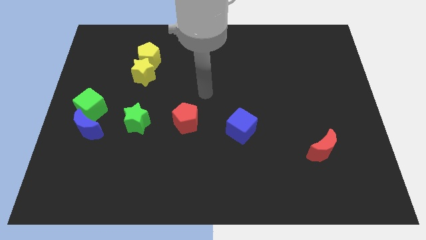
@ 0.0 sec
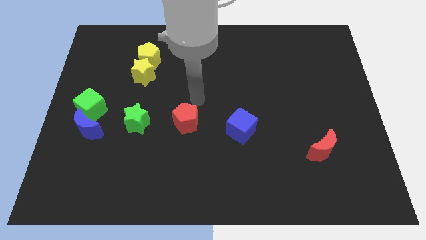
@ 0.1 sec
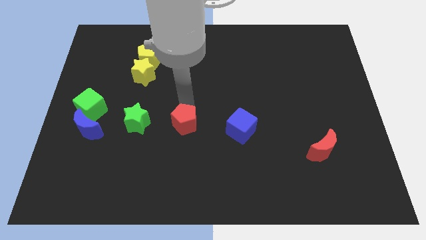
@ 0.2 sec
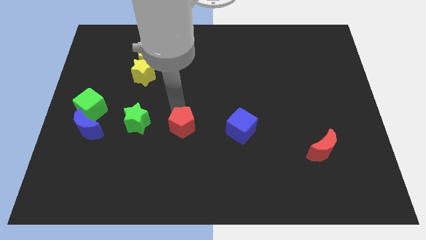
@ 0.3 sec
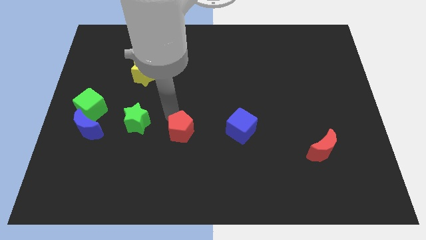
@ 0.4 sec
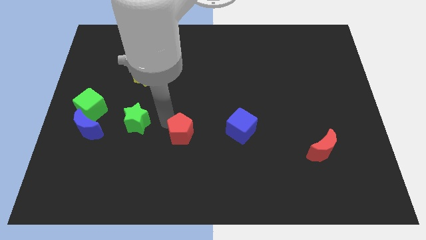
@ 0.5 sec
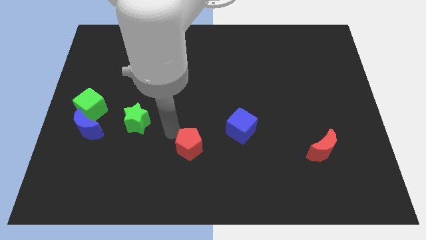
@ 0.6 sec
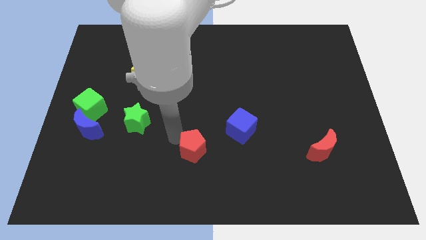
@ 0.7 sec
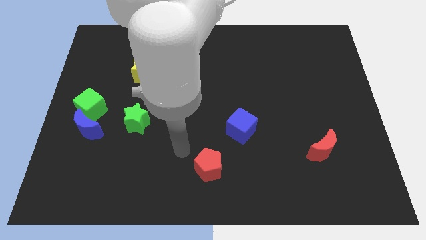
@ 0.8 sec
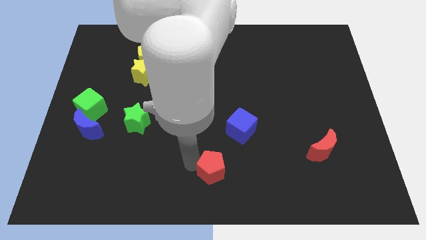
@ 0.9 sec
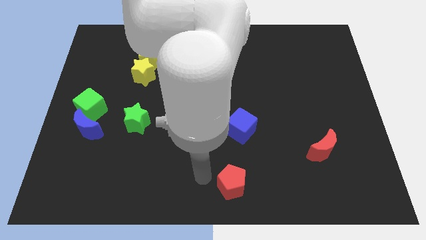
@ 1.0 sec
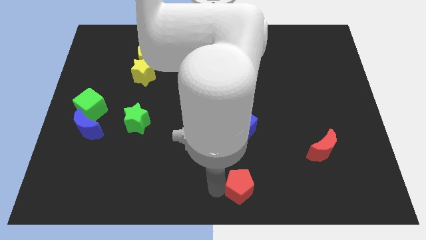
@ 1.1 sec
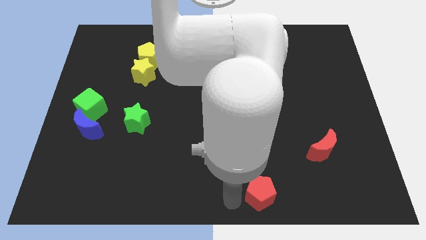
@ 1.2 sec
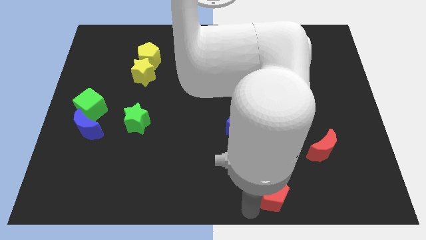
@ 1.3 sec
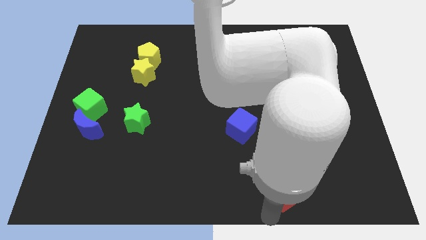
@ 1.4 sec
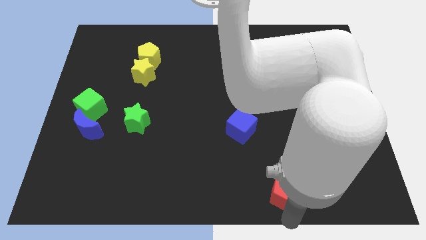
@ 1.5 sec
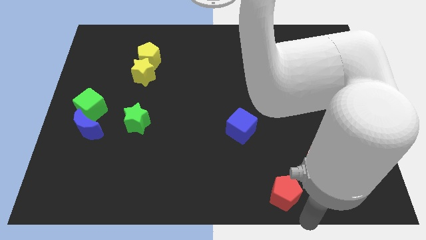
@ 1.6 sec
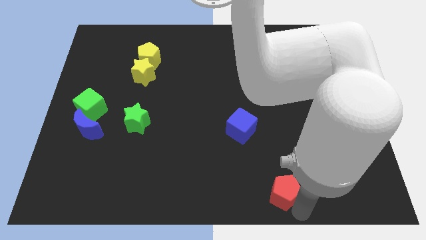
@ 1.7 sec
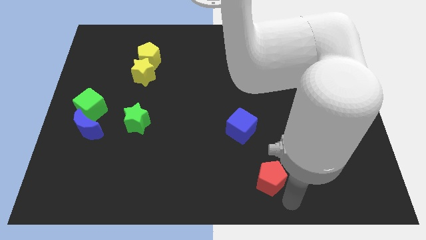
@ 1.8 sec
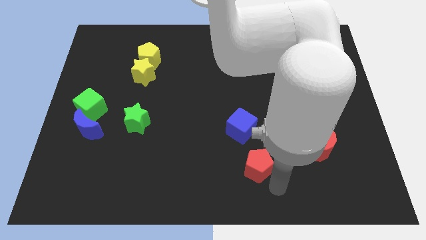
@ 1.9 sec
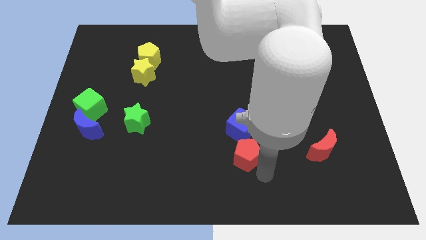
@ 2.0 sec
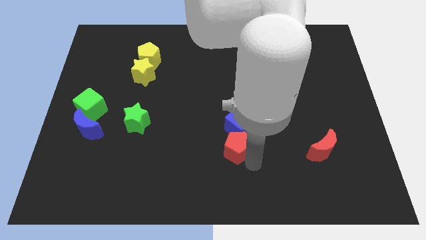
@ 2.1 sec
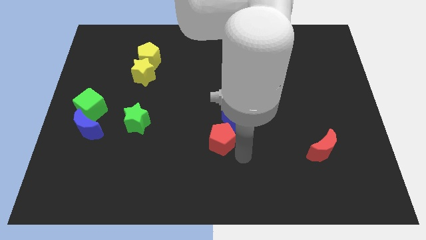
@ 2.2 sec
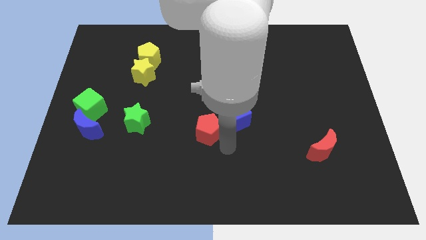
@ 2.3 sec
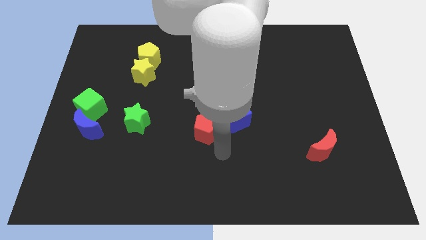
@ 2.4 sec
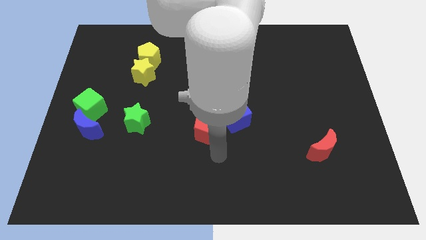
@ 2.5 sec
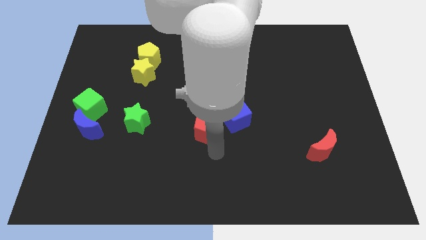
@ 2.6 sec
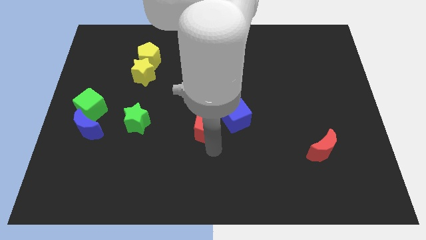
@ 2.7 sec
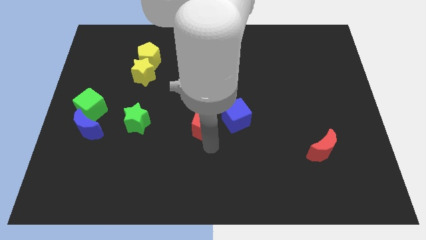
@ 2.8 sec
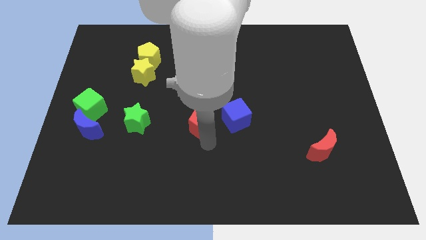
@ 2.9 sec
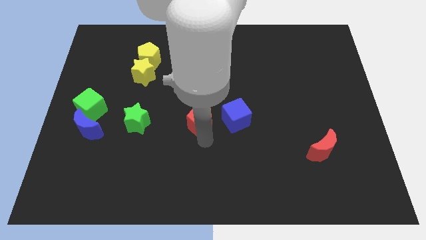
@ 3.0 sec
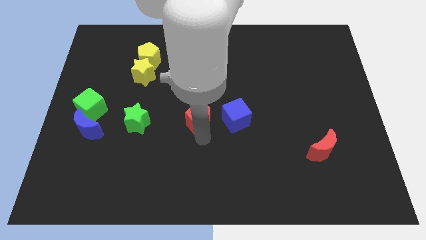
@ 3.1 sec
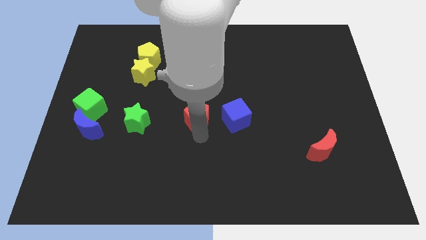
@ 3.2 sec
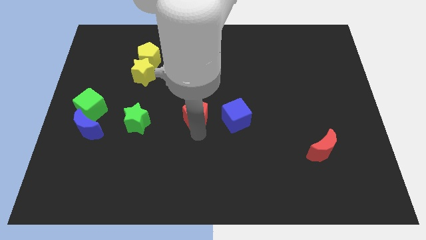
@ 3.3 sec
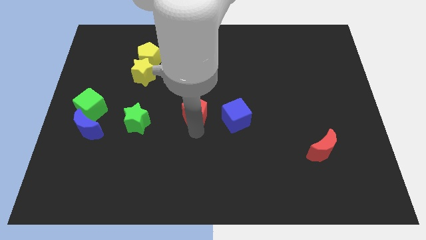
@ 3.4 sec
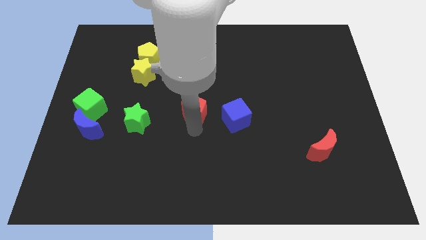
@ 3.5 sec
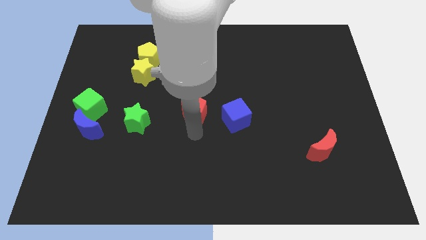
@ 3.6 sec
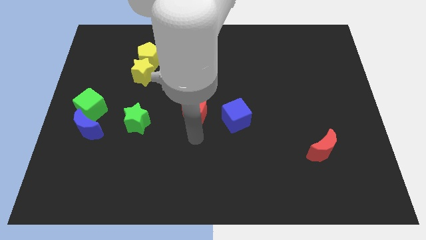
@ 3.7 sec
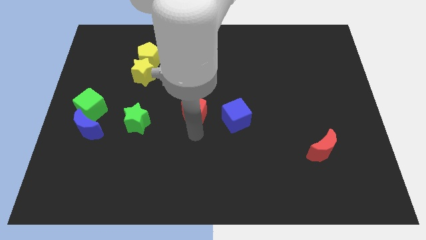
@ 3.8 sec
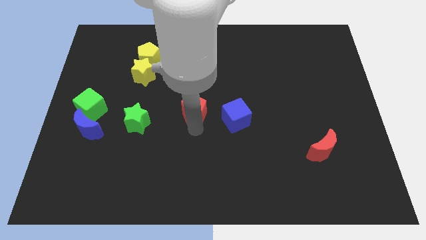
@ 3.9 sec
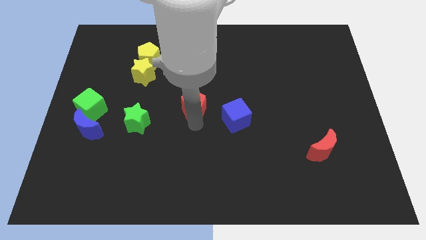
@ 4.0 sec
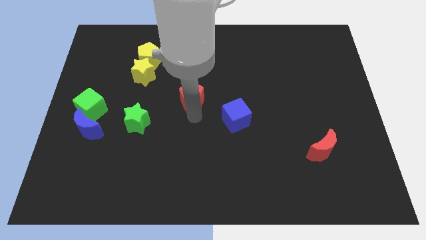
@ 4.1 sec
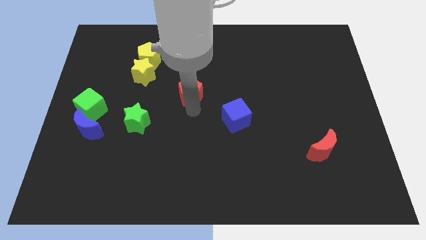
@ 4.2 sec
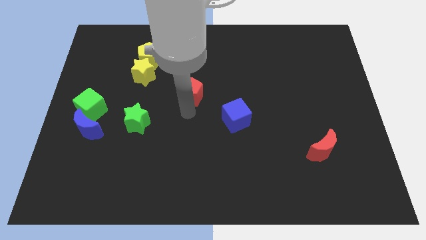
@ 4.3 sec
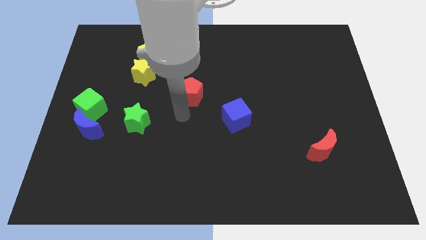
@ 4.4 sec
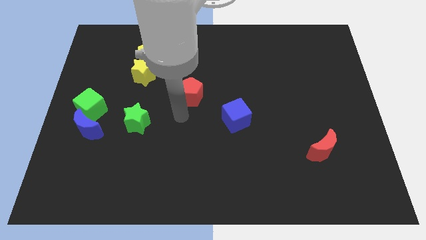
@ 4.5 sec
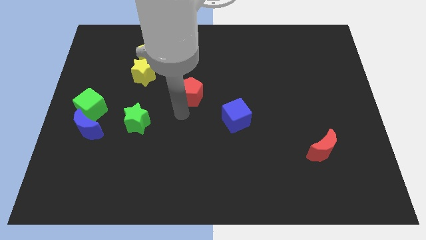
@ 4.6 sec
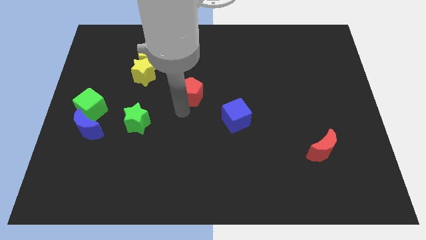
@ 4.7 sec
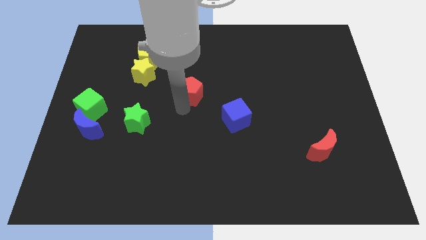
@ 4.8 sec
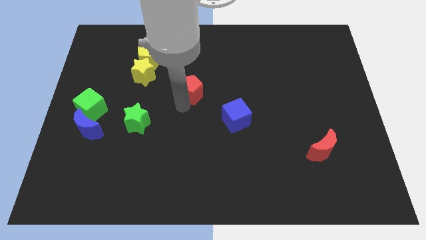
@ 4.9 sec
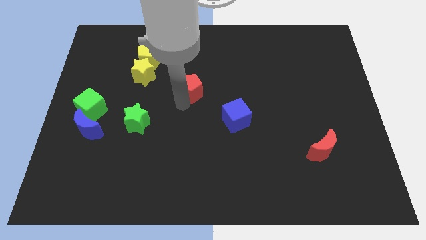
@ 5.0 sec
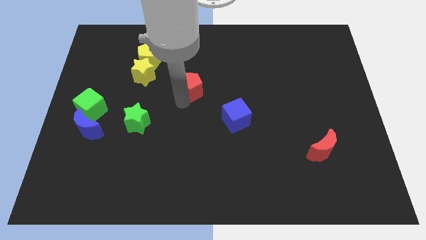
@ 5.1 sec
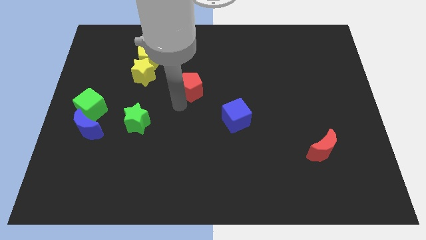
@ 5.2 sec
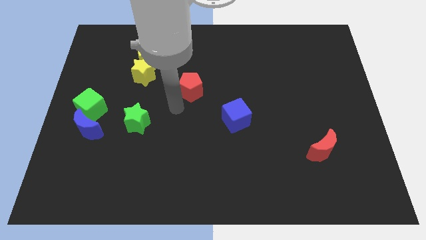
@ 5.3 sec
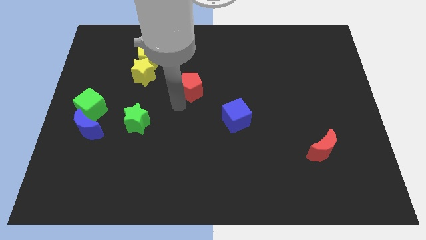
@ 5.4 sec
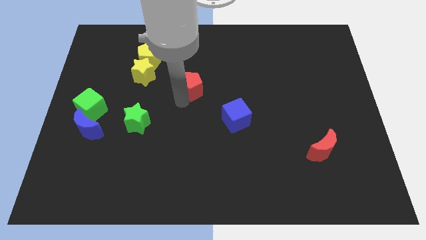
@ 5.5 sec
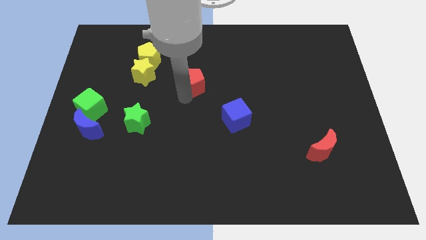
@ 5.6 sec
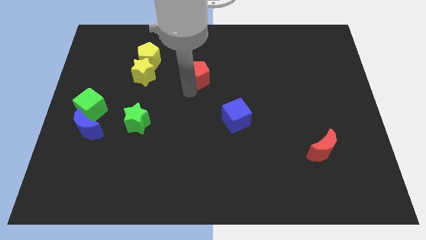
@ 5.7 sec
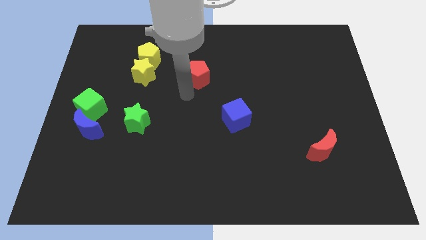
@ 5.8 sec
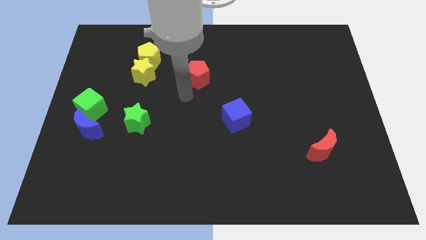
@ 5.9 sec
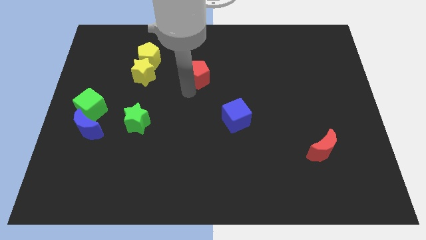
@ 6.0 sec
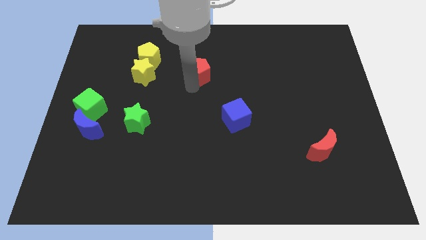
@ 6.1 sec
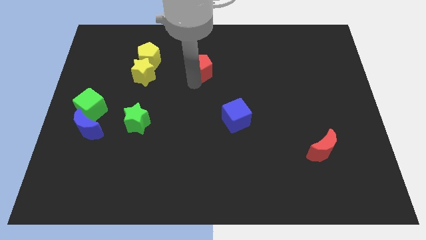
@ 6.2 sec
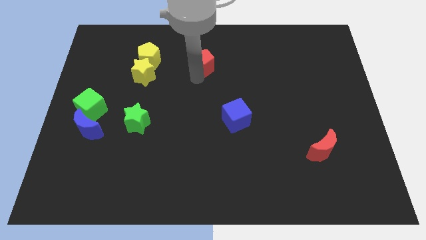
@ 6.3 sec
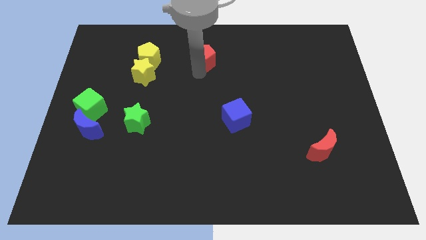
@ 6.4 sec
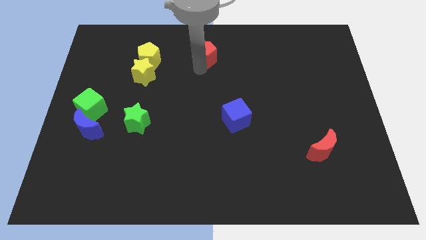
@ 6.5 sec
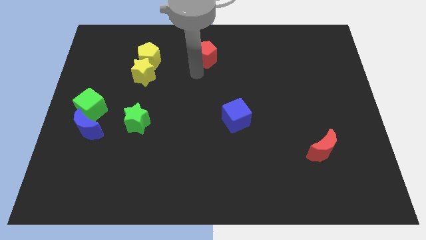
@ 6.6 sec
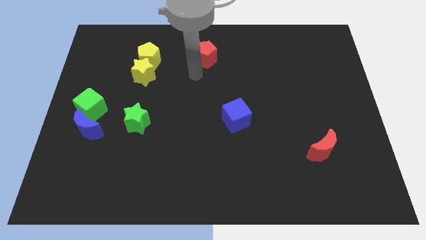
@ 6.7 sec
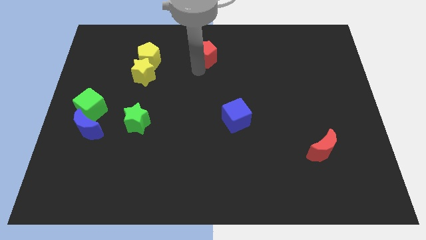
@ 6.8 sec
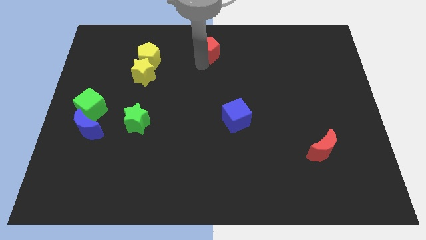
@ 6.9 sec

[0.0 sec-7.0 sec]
move the red pentagon to the towards your base
